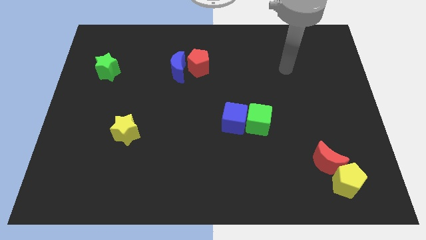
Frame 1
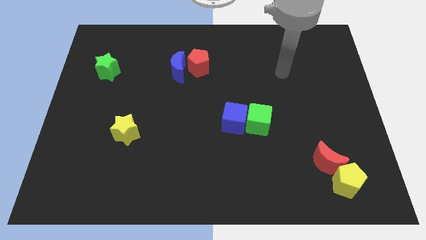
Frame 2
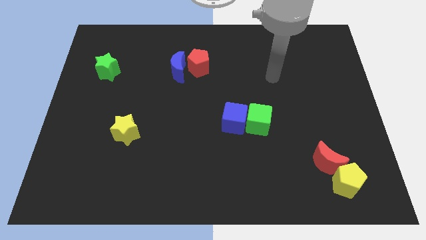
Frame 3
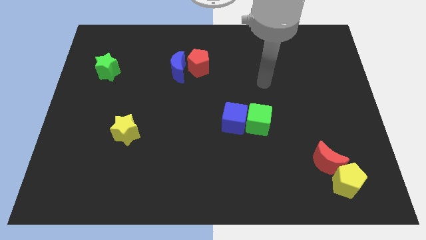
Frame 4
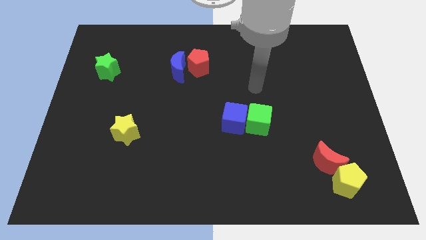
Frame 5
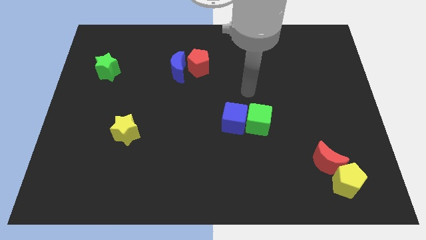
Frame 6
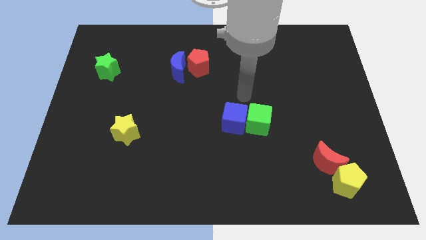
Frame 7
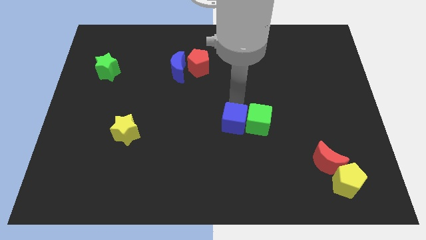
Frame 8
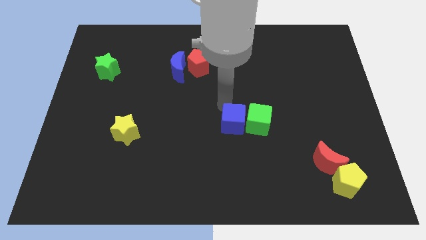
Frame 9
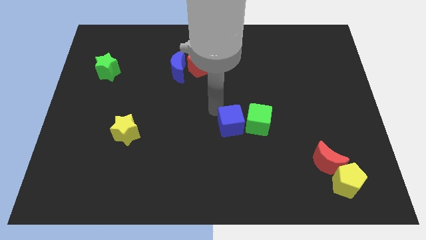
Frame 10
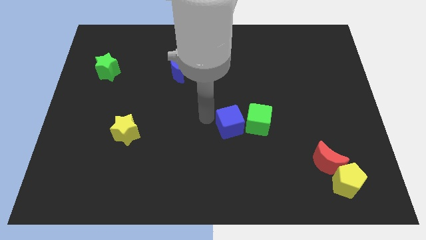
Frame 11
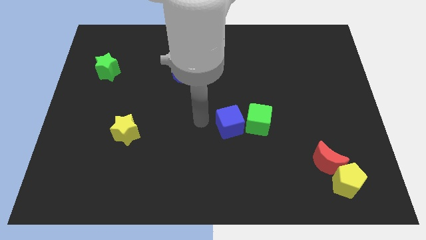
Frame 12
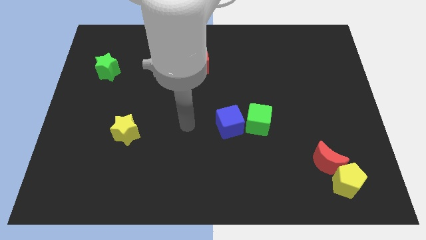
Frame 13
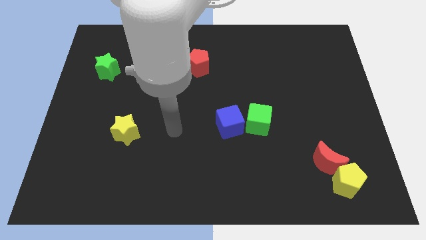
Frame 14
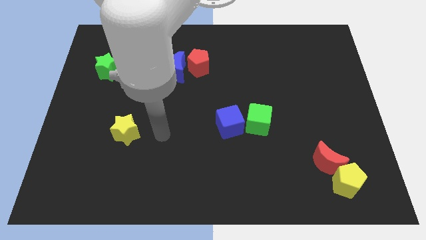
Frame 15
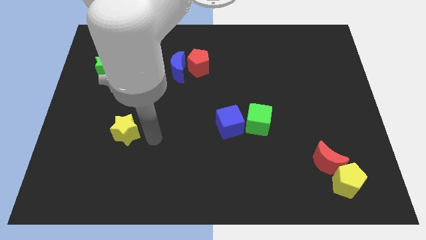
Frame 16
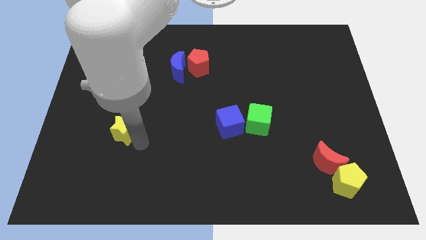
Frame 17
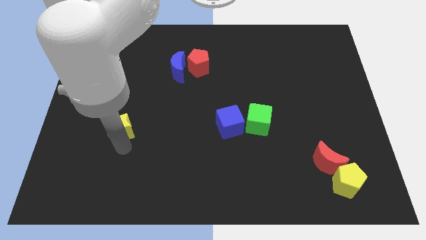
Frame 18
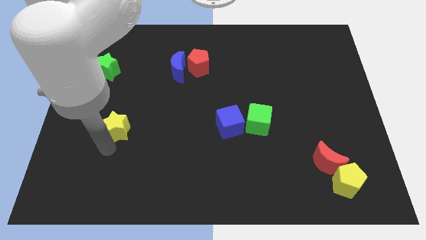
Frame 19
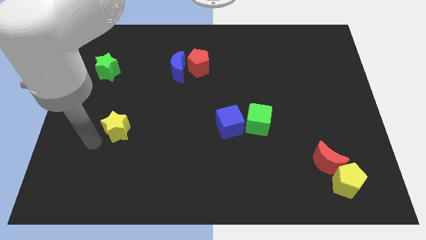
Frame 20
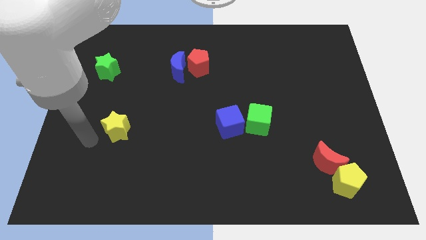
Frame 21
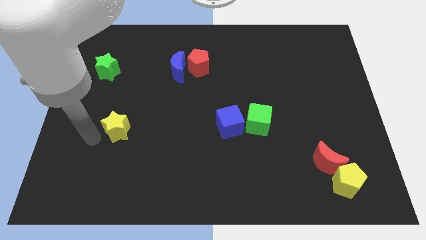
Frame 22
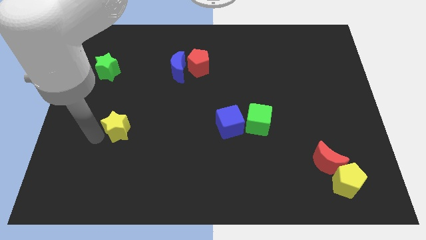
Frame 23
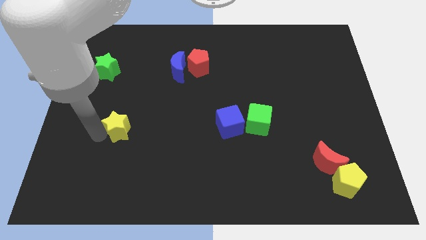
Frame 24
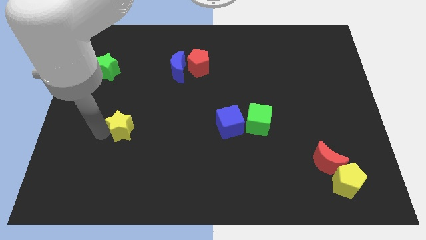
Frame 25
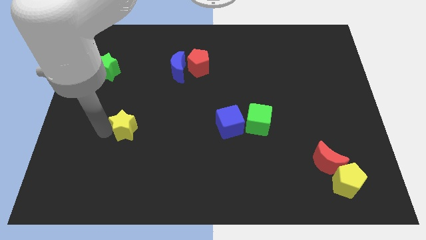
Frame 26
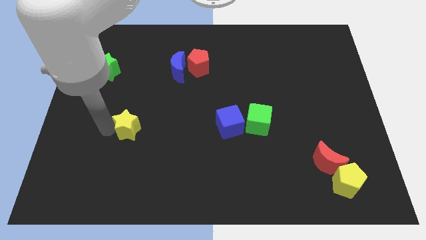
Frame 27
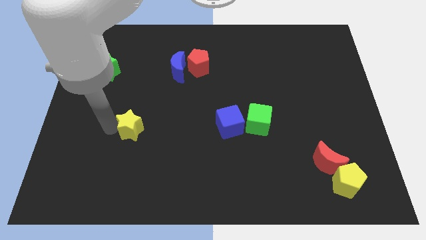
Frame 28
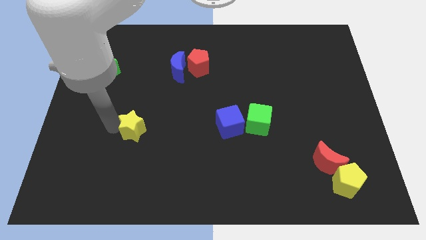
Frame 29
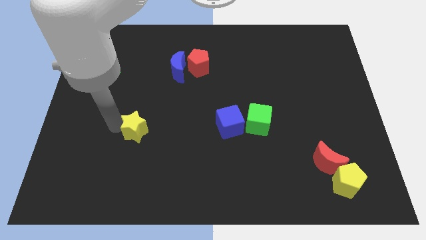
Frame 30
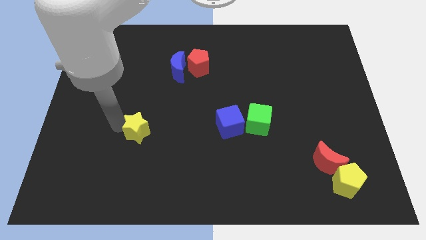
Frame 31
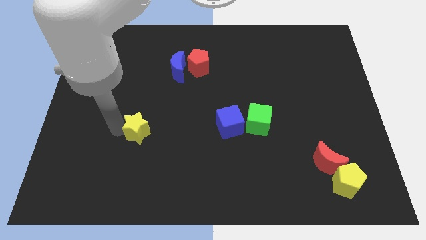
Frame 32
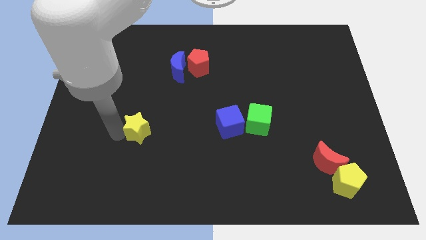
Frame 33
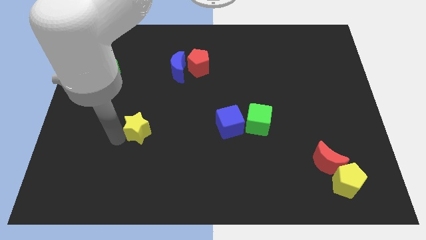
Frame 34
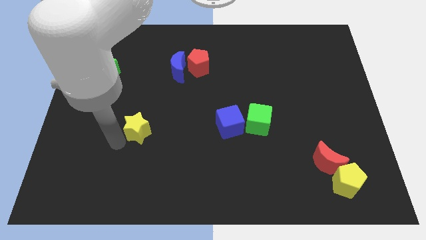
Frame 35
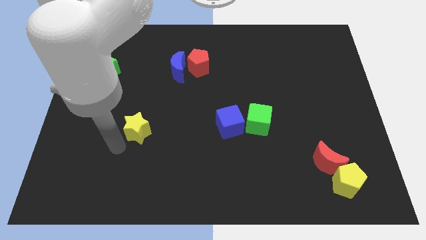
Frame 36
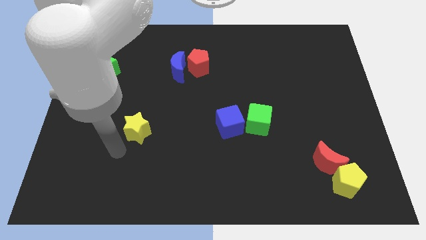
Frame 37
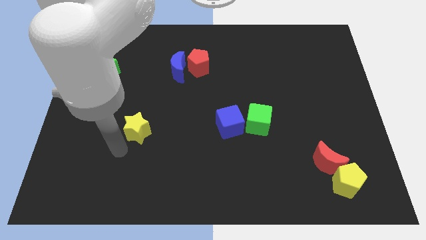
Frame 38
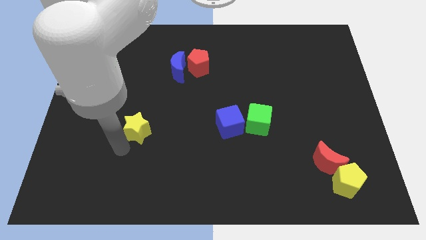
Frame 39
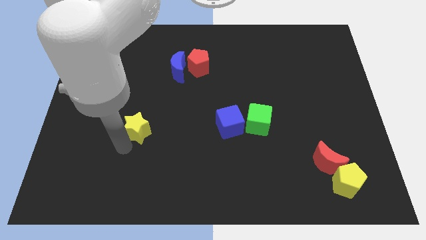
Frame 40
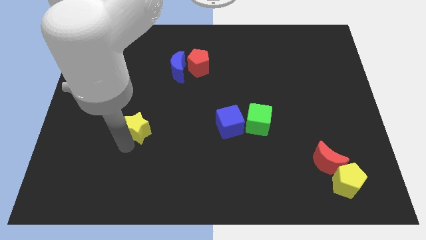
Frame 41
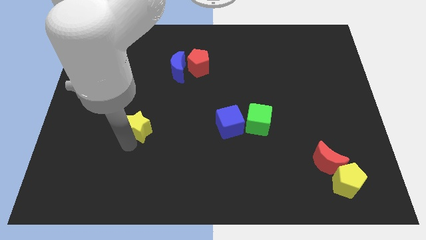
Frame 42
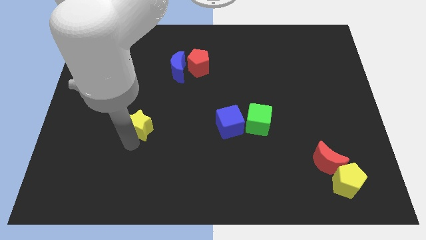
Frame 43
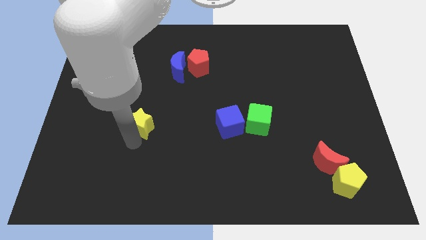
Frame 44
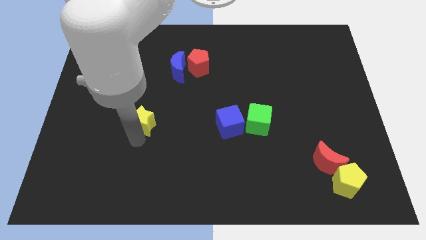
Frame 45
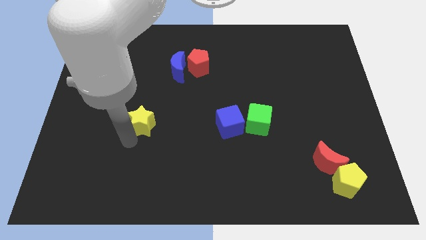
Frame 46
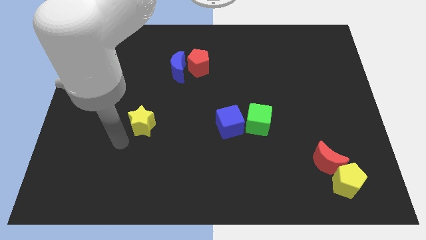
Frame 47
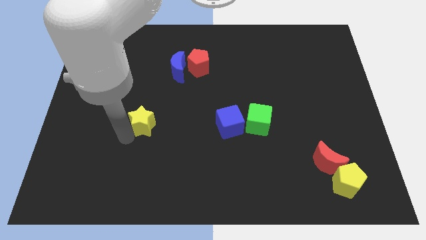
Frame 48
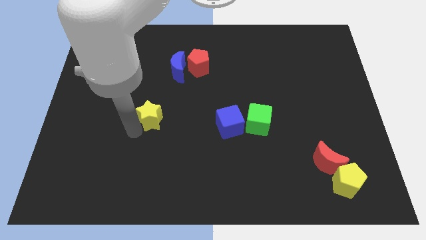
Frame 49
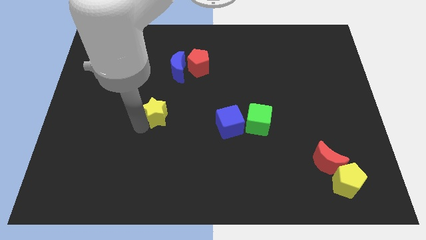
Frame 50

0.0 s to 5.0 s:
move the yellow star upwards and right diagonally a bit

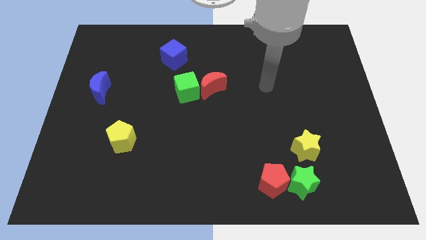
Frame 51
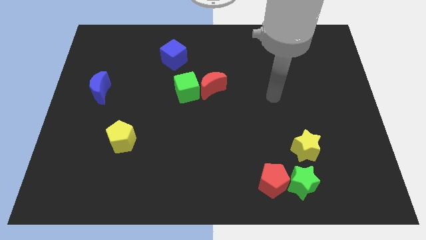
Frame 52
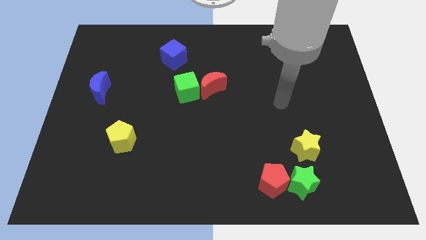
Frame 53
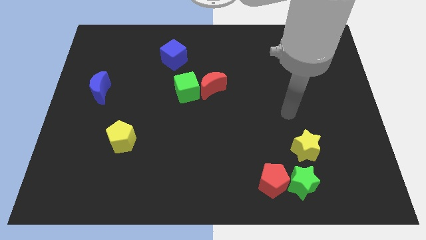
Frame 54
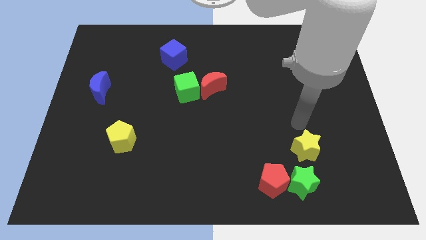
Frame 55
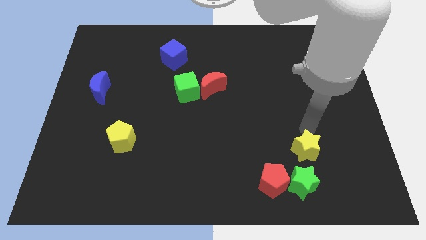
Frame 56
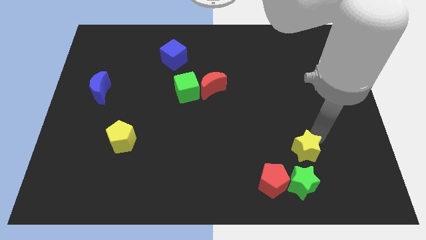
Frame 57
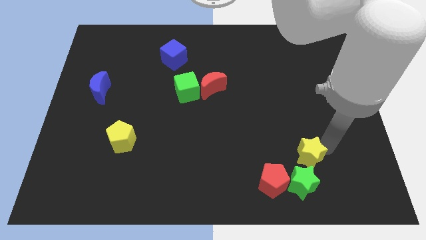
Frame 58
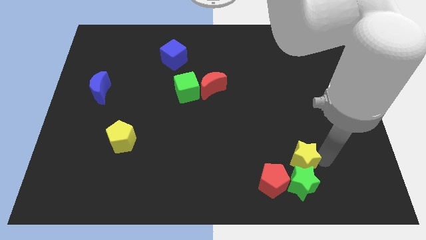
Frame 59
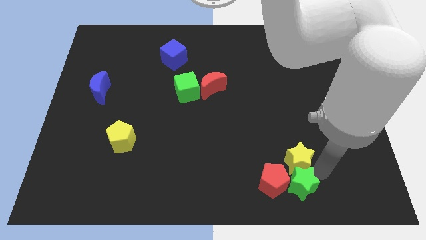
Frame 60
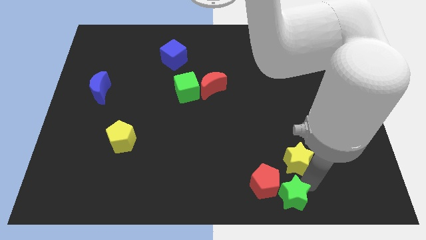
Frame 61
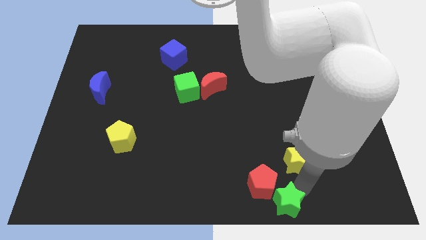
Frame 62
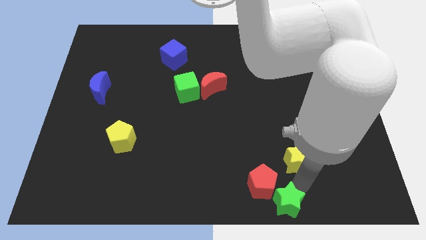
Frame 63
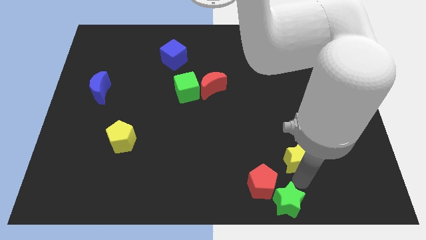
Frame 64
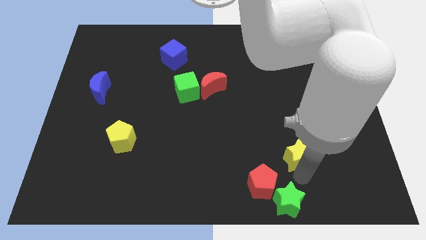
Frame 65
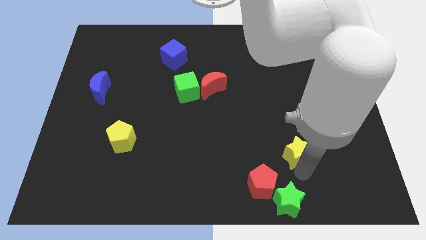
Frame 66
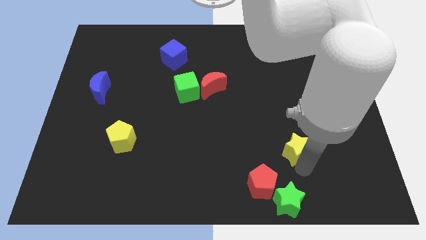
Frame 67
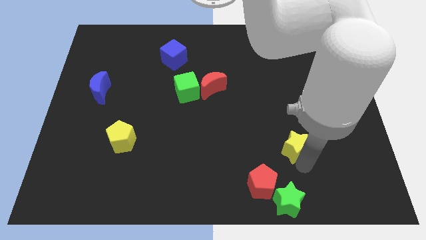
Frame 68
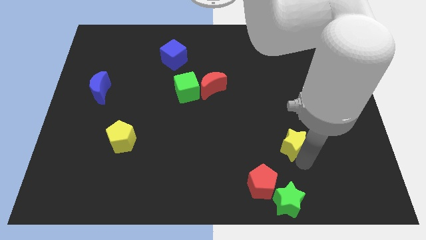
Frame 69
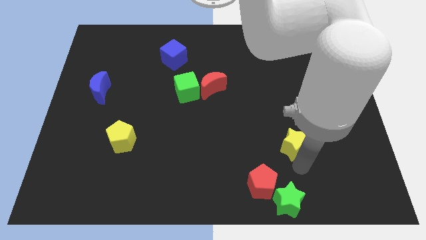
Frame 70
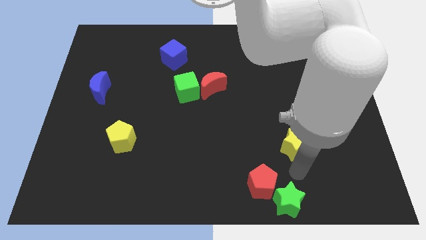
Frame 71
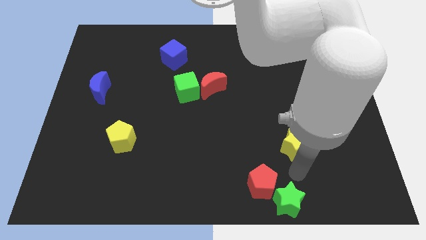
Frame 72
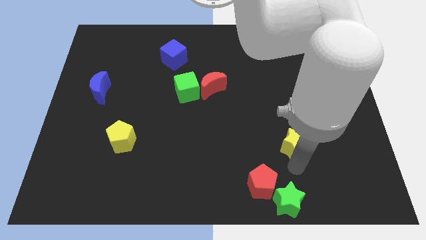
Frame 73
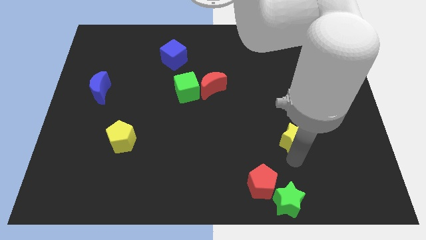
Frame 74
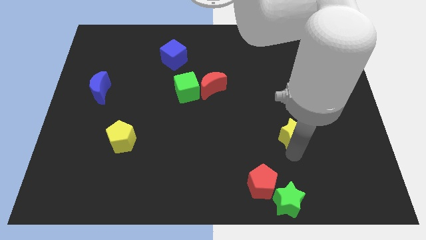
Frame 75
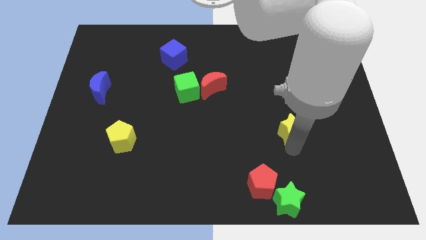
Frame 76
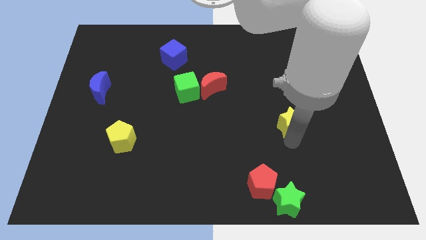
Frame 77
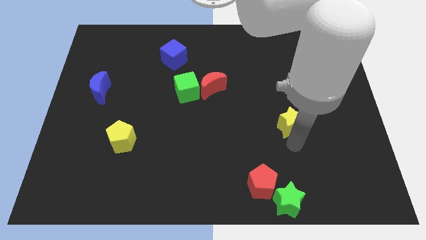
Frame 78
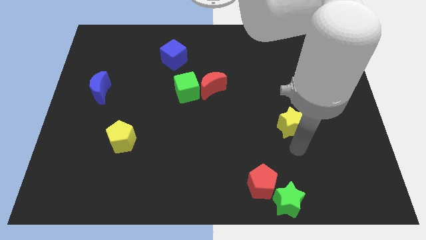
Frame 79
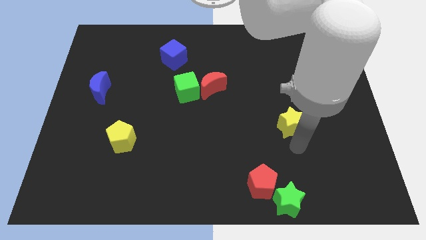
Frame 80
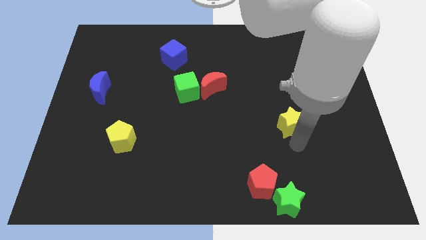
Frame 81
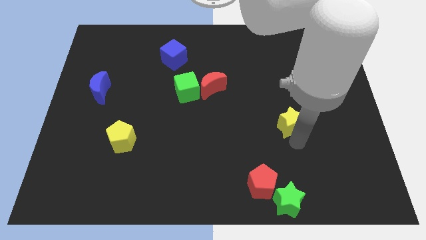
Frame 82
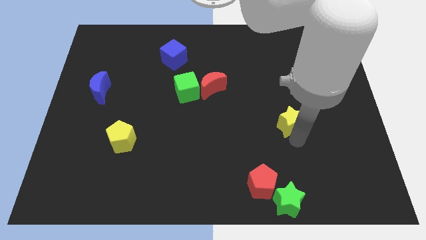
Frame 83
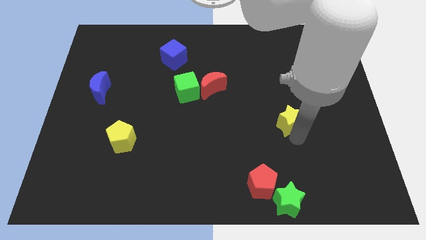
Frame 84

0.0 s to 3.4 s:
slightly slide the yellow star upwards
